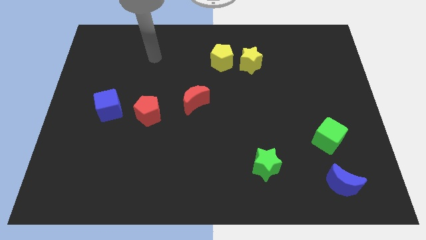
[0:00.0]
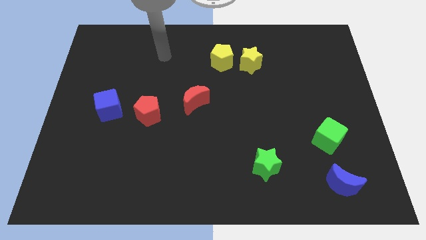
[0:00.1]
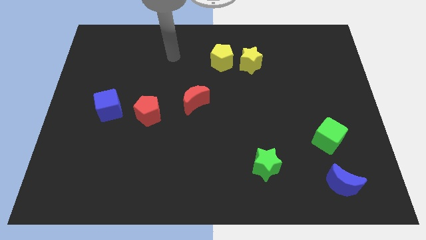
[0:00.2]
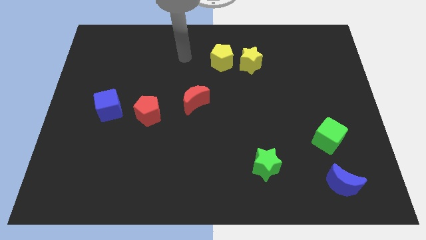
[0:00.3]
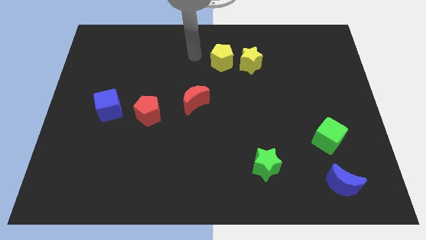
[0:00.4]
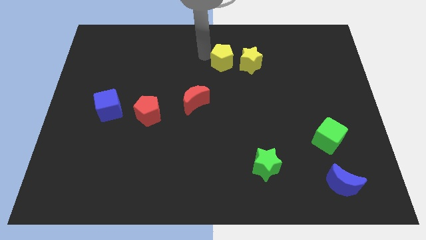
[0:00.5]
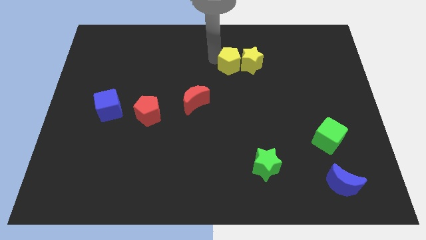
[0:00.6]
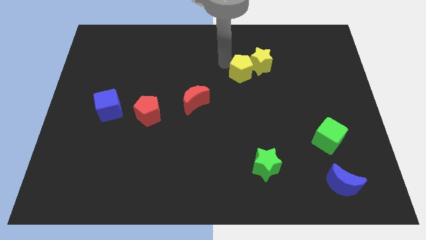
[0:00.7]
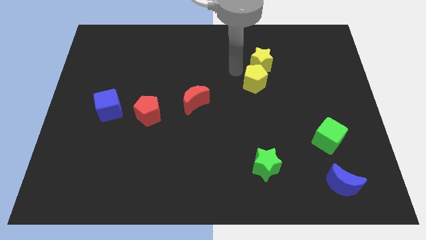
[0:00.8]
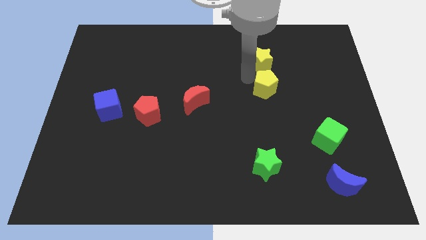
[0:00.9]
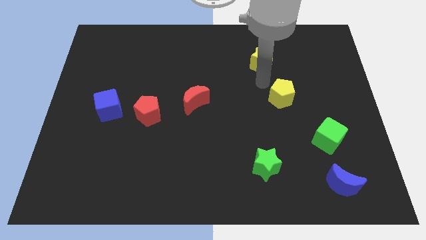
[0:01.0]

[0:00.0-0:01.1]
move the yellow star away from the yellow pentagon

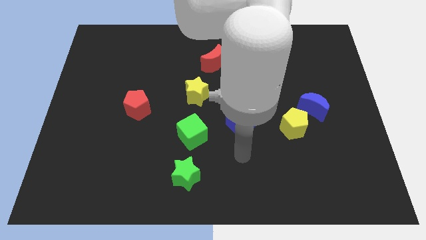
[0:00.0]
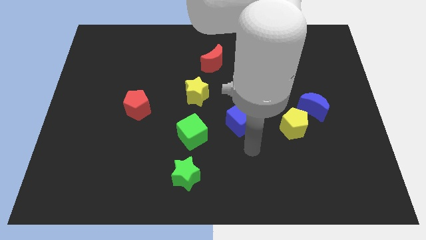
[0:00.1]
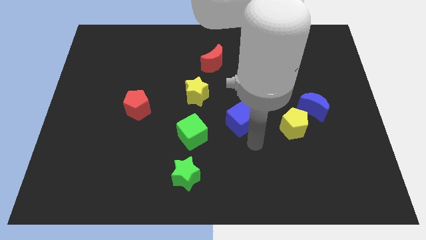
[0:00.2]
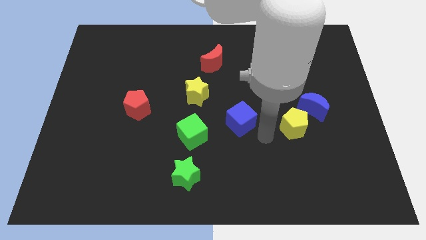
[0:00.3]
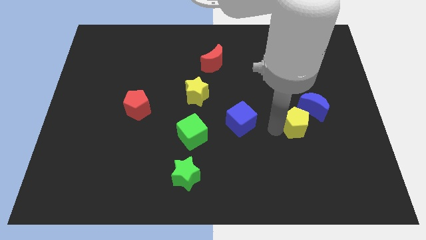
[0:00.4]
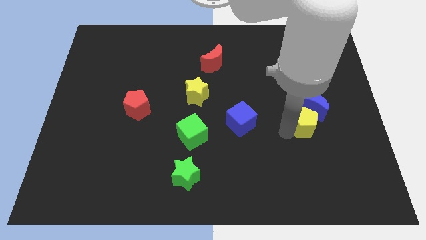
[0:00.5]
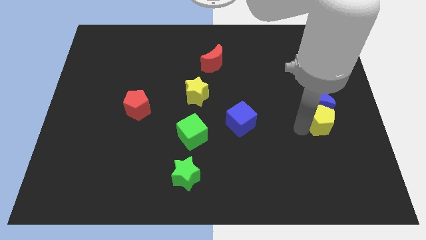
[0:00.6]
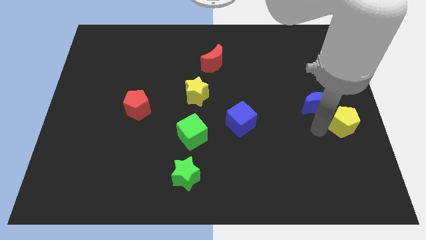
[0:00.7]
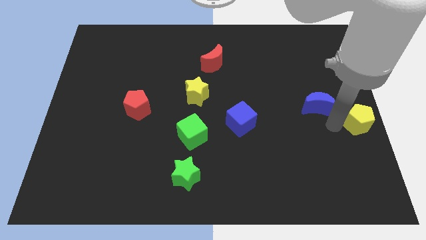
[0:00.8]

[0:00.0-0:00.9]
move the blue moon away from the yellow pentagon

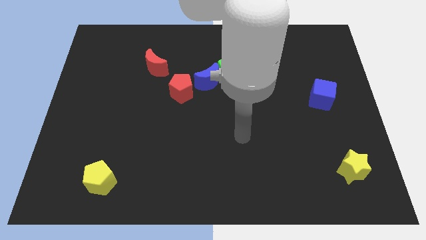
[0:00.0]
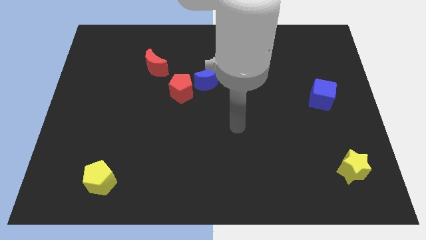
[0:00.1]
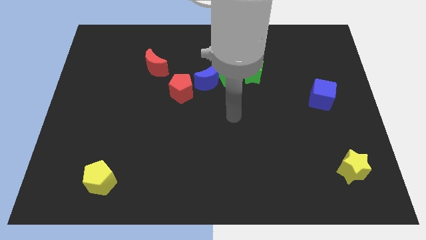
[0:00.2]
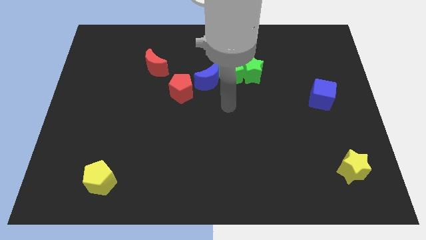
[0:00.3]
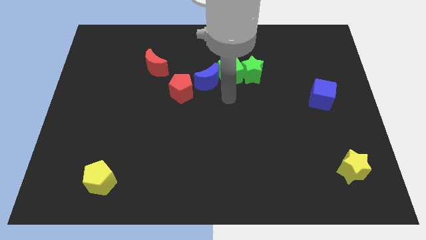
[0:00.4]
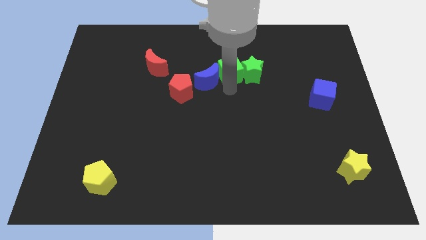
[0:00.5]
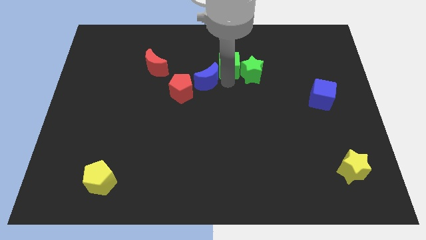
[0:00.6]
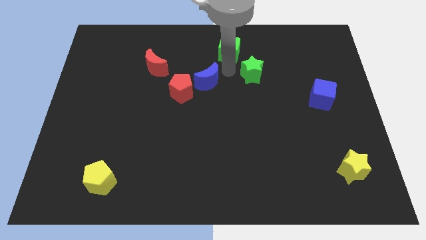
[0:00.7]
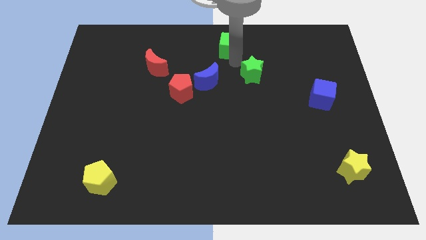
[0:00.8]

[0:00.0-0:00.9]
move the green star away from the green cube

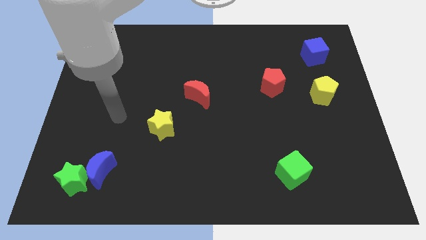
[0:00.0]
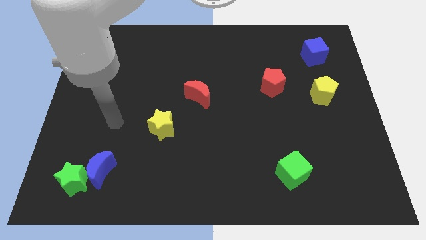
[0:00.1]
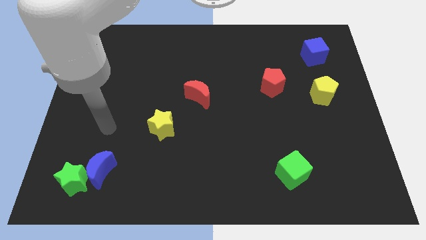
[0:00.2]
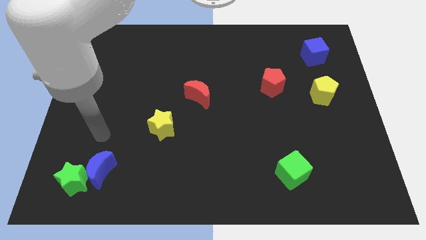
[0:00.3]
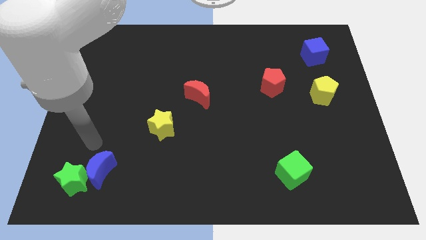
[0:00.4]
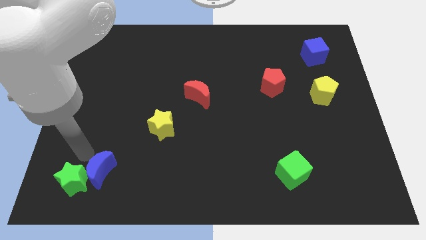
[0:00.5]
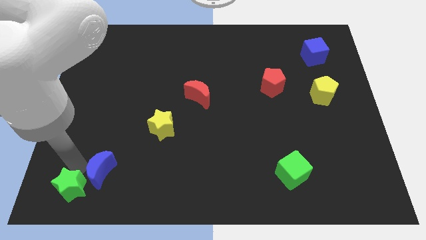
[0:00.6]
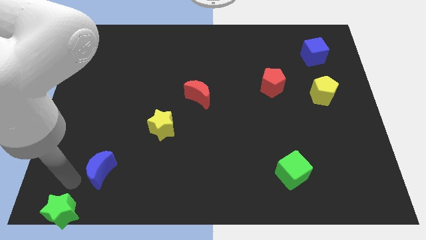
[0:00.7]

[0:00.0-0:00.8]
move the blue moon away from the green star

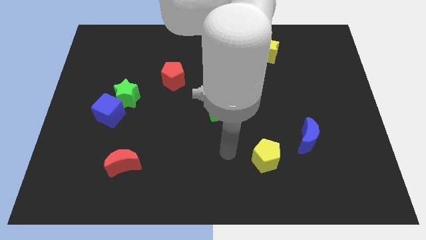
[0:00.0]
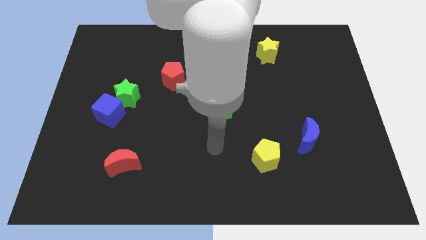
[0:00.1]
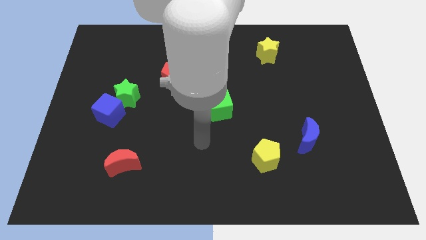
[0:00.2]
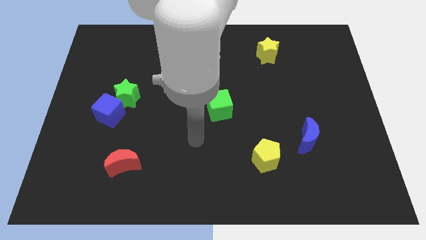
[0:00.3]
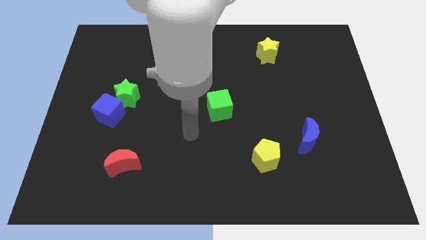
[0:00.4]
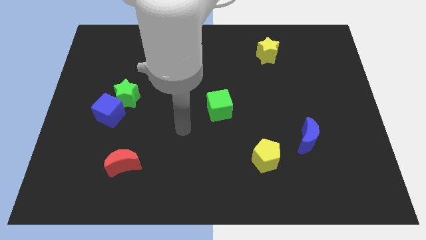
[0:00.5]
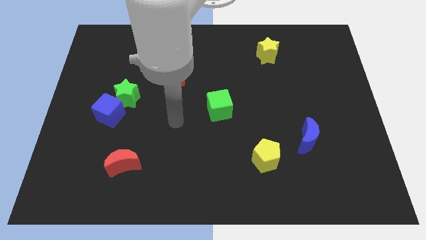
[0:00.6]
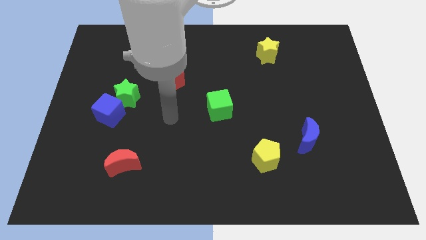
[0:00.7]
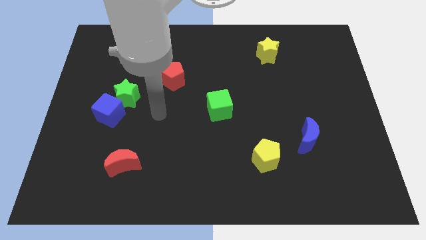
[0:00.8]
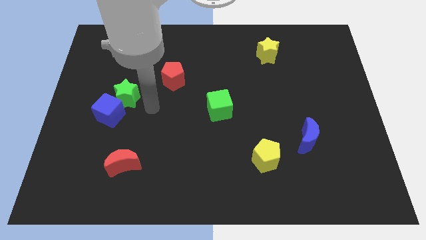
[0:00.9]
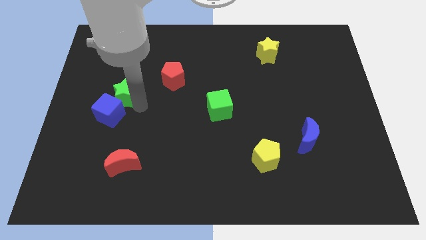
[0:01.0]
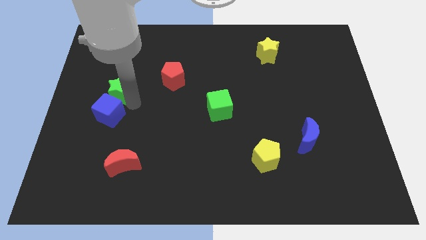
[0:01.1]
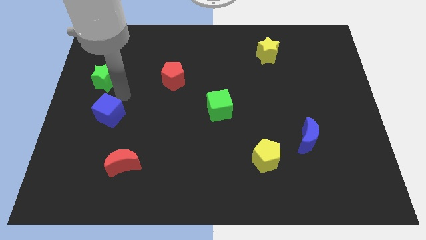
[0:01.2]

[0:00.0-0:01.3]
move the blue cube away from the green star

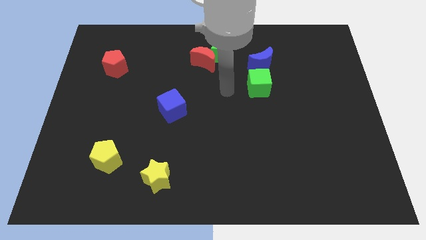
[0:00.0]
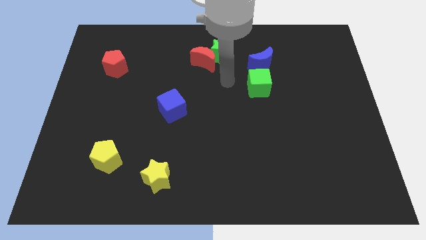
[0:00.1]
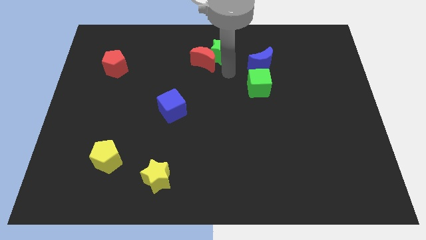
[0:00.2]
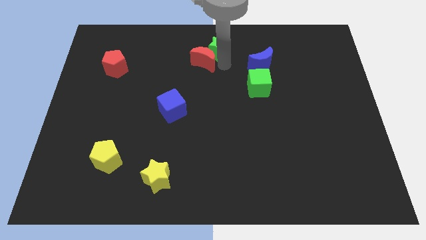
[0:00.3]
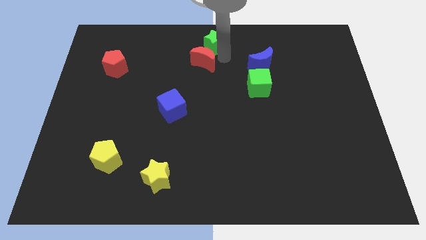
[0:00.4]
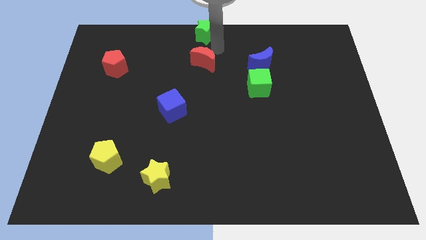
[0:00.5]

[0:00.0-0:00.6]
move the red moon away from the green star

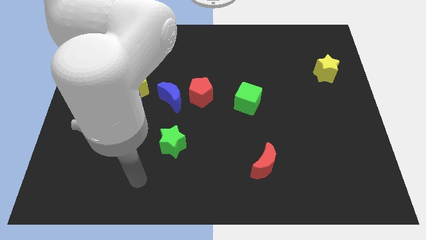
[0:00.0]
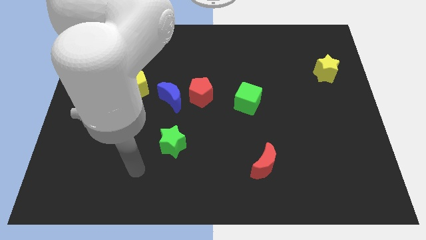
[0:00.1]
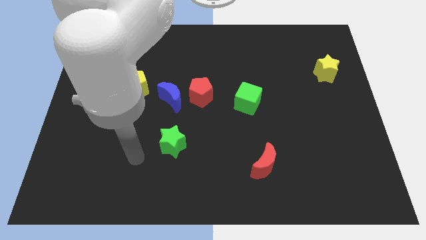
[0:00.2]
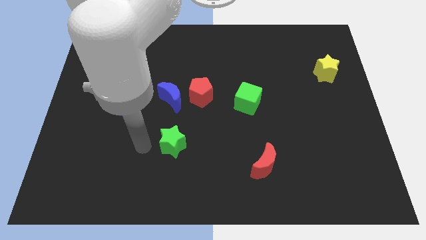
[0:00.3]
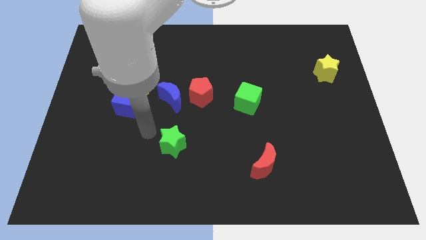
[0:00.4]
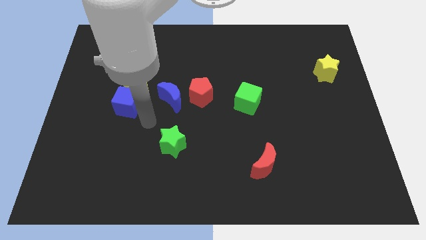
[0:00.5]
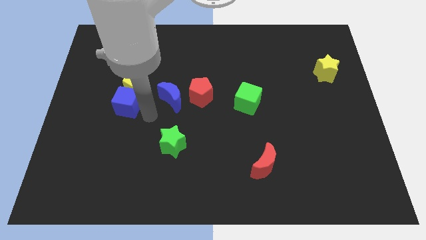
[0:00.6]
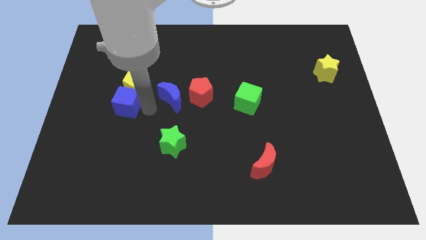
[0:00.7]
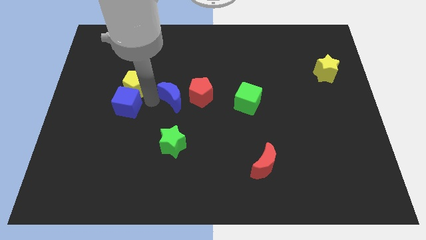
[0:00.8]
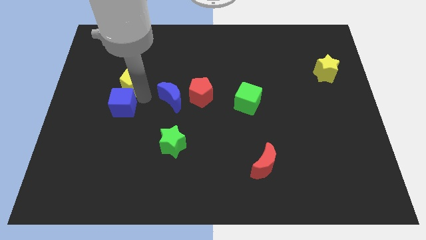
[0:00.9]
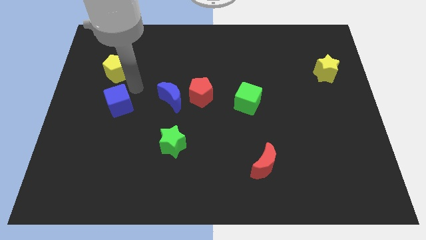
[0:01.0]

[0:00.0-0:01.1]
move the blue cube away from the yellow pentagon

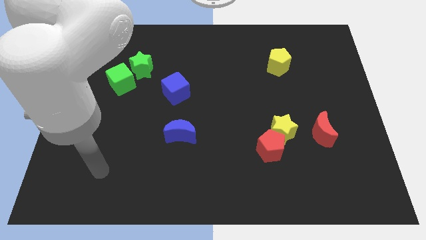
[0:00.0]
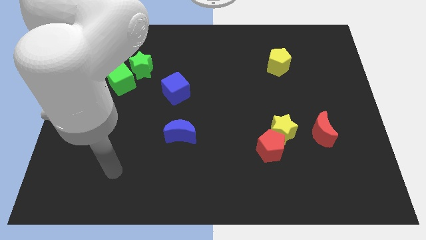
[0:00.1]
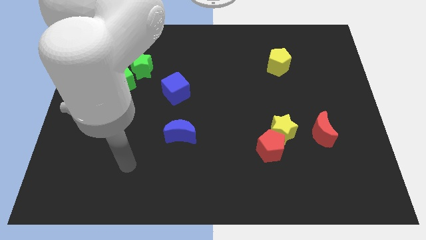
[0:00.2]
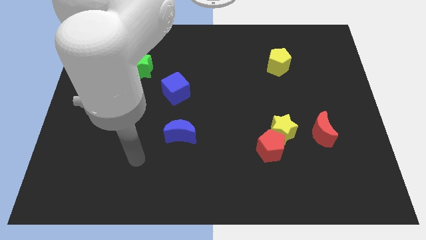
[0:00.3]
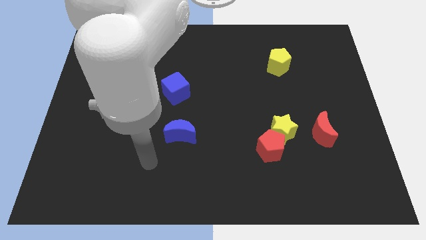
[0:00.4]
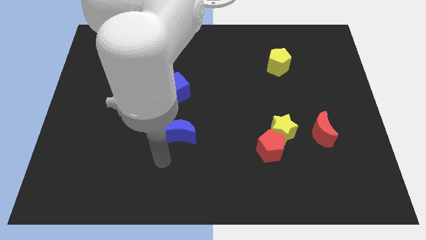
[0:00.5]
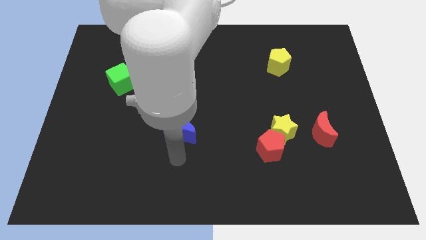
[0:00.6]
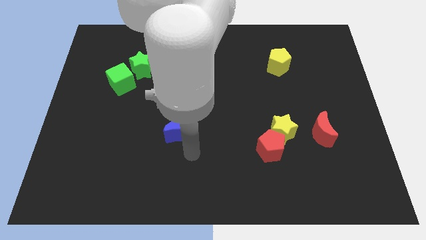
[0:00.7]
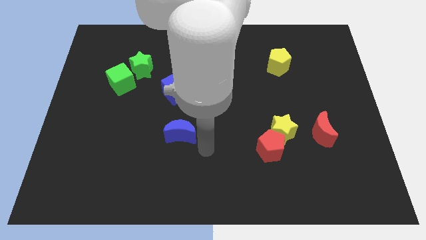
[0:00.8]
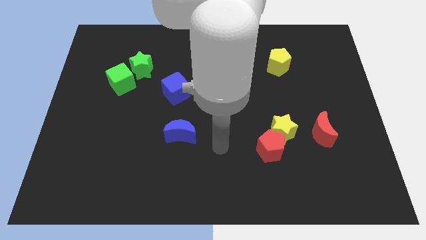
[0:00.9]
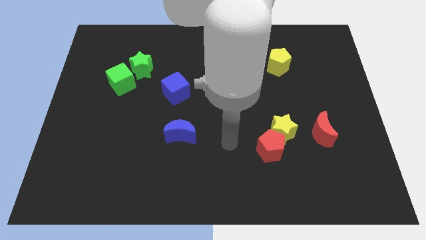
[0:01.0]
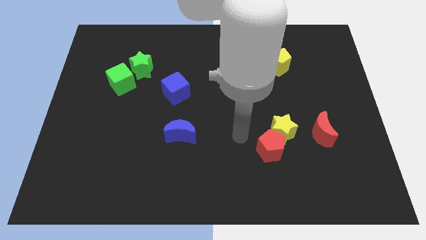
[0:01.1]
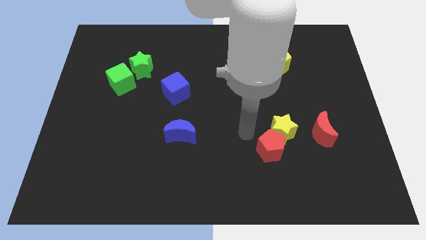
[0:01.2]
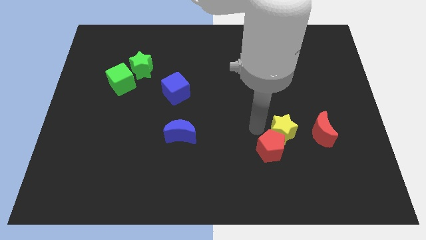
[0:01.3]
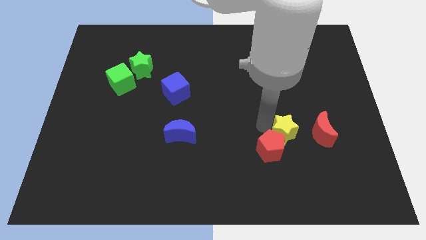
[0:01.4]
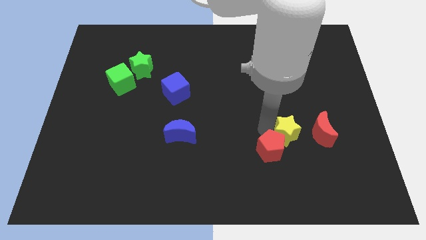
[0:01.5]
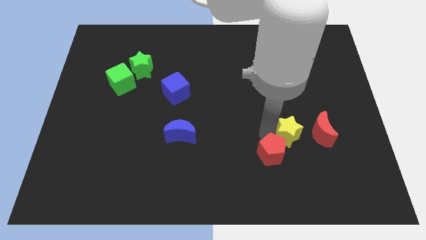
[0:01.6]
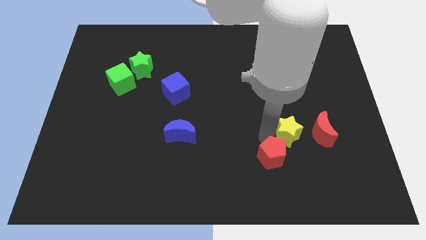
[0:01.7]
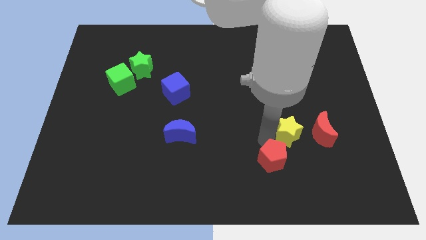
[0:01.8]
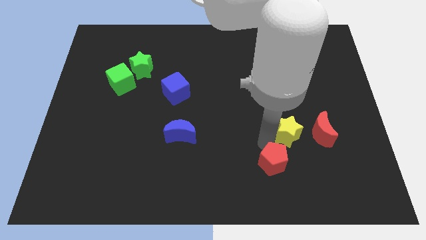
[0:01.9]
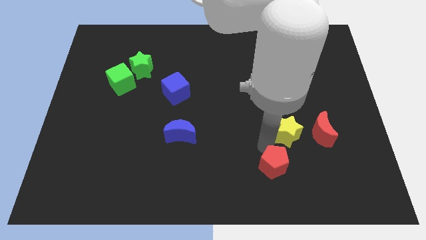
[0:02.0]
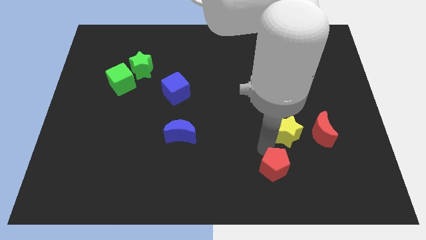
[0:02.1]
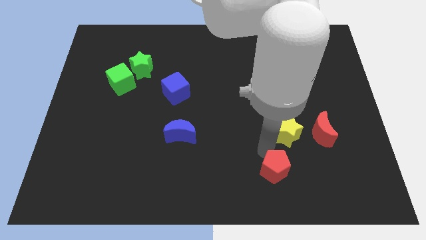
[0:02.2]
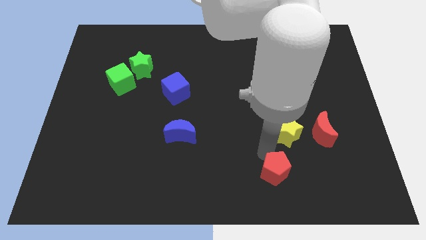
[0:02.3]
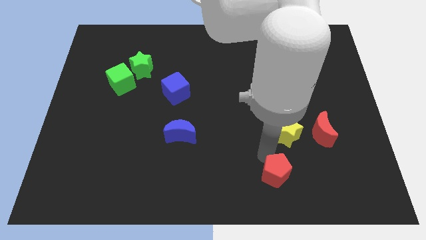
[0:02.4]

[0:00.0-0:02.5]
pull the red pentagon apart from the yellow star
